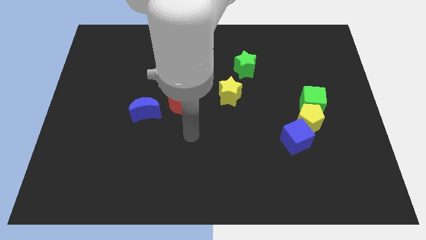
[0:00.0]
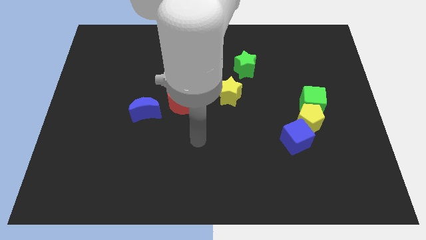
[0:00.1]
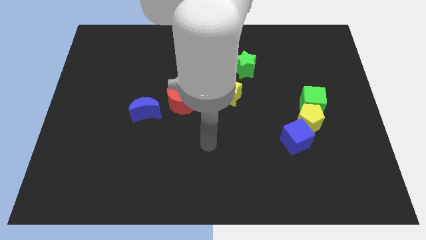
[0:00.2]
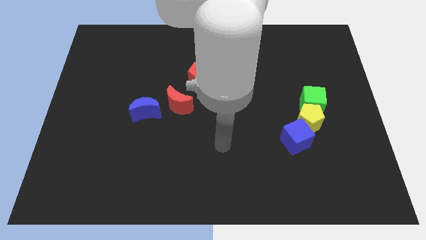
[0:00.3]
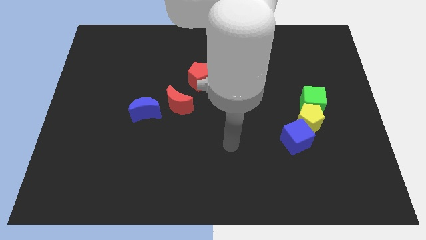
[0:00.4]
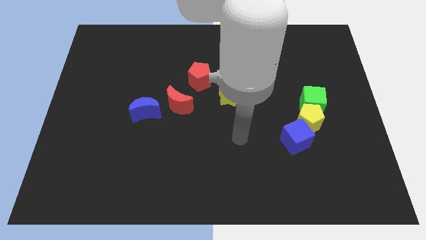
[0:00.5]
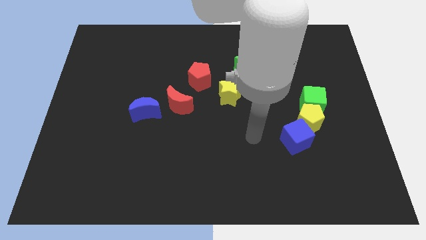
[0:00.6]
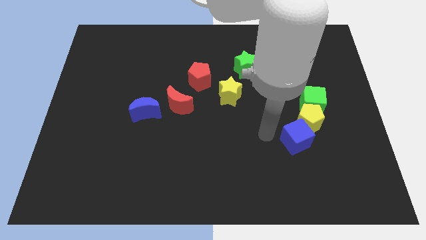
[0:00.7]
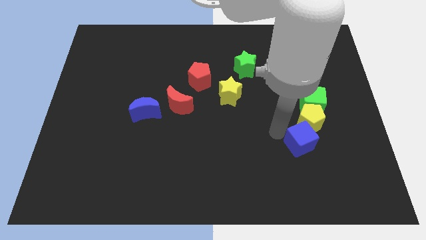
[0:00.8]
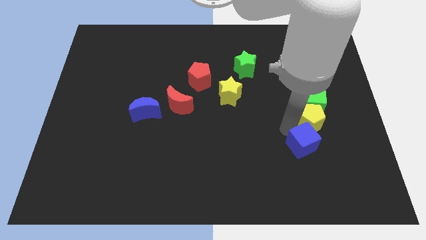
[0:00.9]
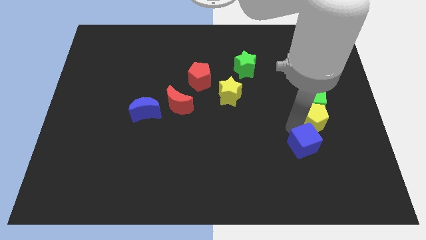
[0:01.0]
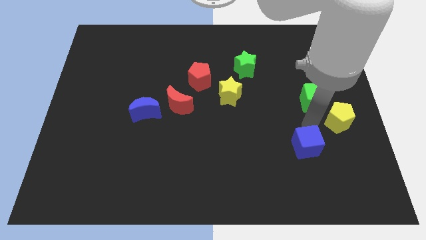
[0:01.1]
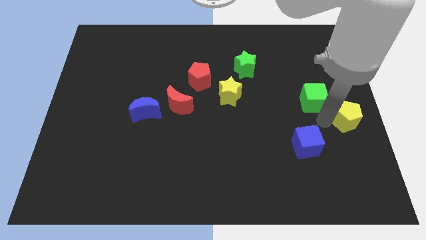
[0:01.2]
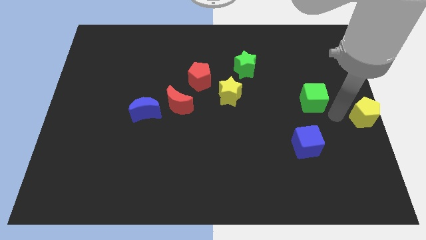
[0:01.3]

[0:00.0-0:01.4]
pull the green cube apart from the yellow pentagon

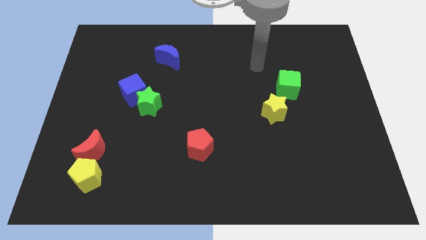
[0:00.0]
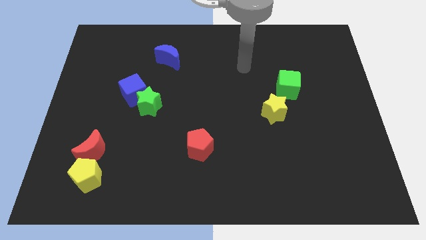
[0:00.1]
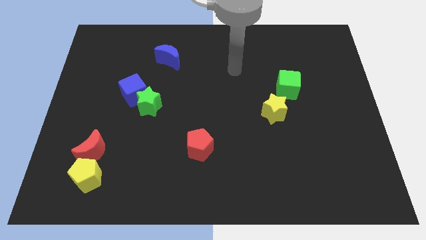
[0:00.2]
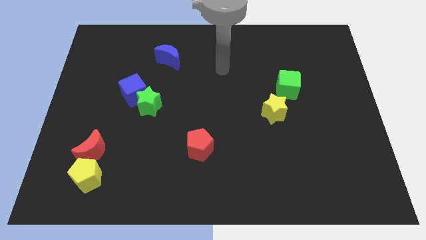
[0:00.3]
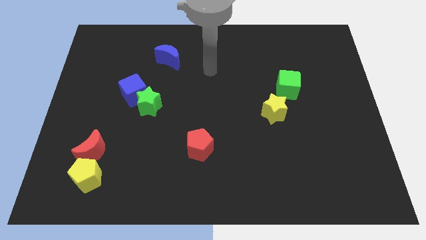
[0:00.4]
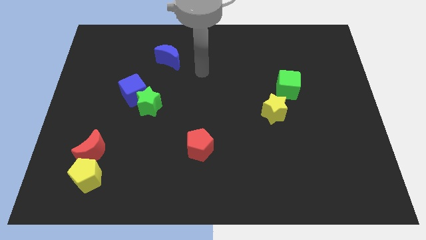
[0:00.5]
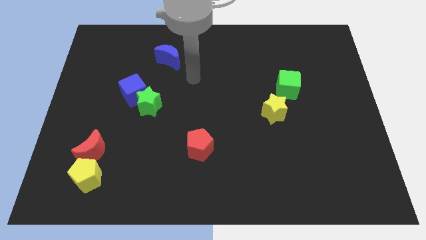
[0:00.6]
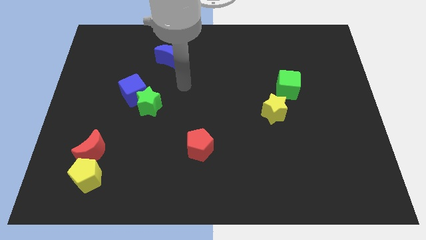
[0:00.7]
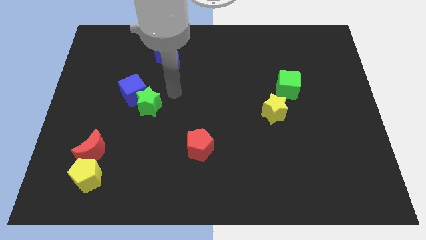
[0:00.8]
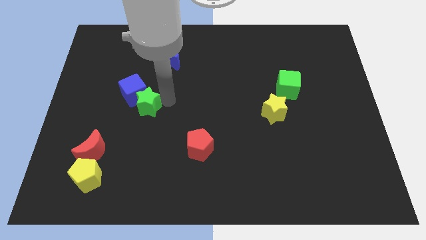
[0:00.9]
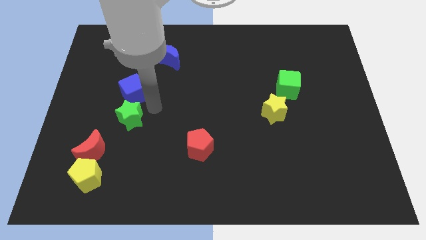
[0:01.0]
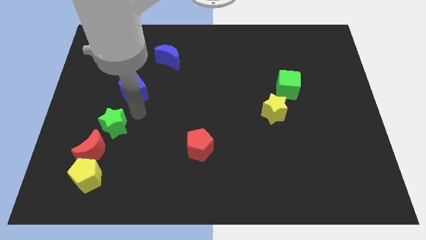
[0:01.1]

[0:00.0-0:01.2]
pull the blue cube apart from the green star

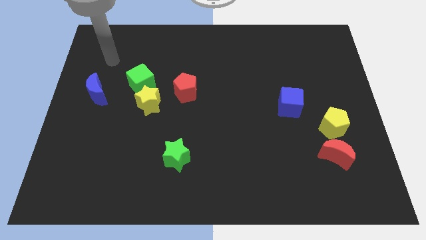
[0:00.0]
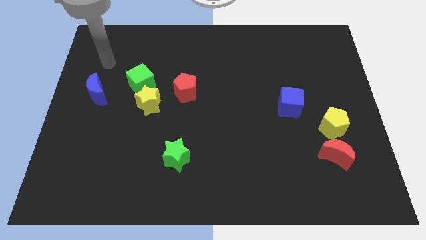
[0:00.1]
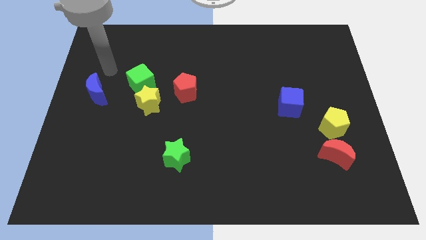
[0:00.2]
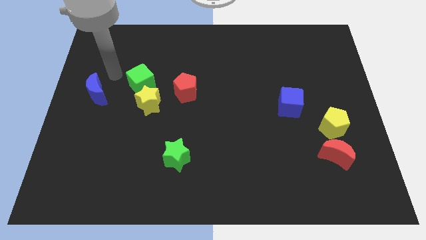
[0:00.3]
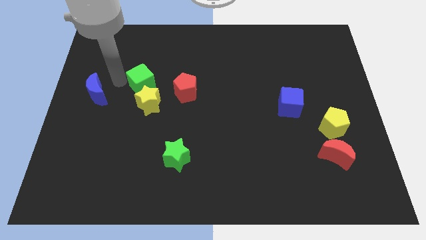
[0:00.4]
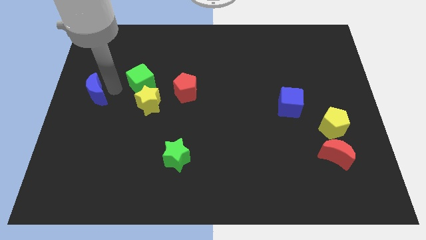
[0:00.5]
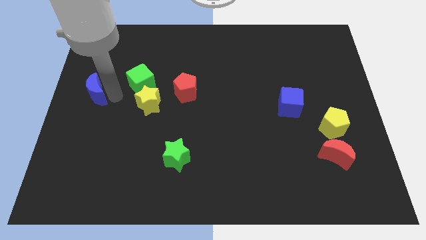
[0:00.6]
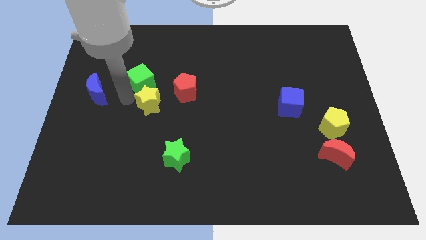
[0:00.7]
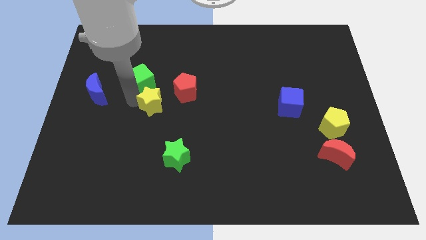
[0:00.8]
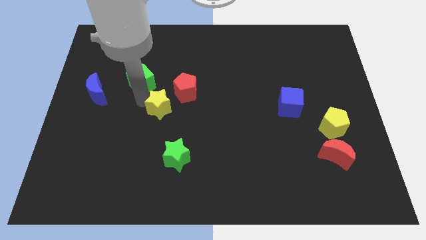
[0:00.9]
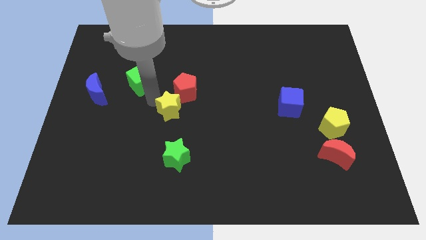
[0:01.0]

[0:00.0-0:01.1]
pull the green cube apart from the yellow star

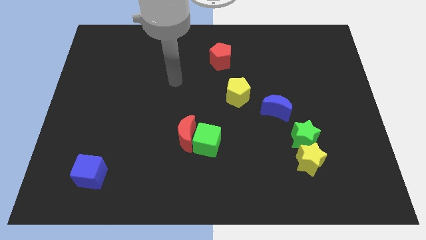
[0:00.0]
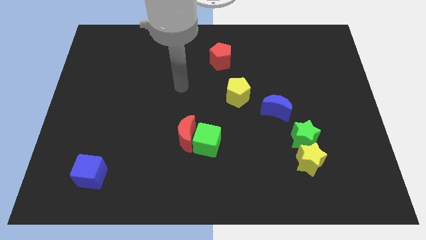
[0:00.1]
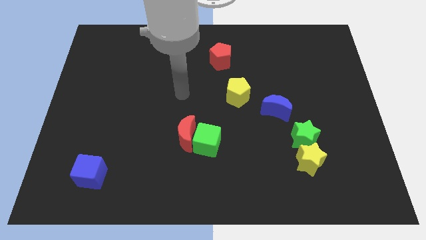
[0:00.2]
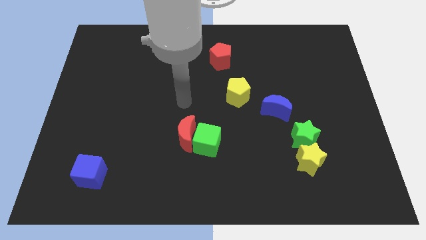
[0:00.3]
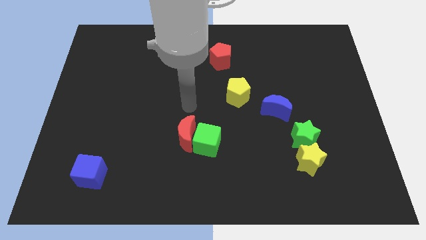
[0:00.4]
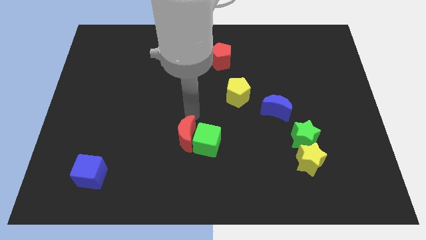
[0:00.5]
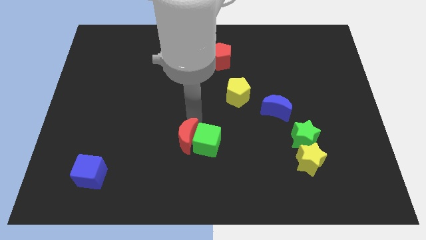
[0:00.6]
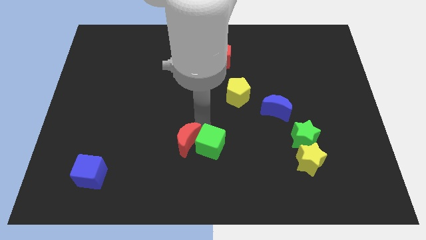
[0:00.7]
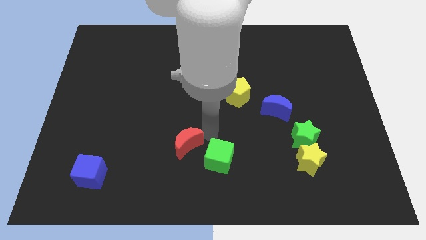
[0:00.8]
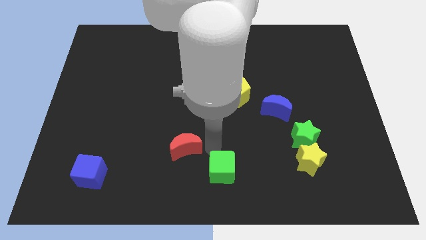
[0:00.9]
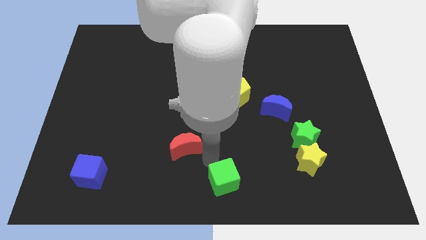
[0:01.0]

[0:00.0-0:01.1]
separate the red moon from the green cube

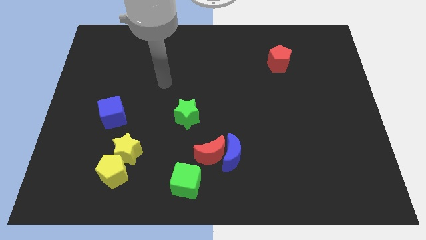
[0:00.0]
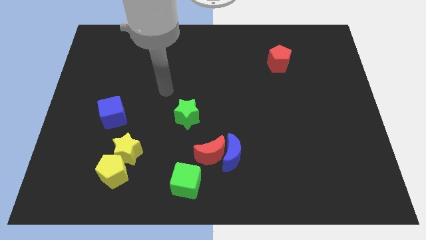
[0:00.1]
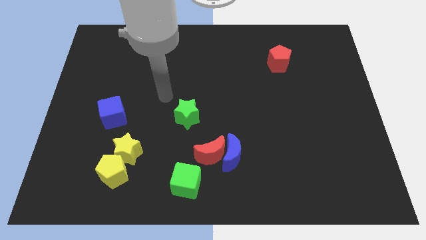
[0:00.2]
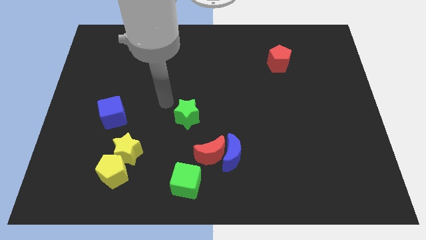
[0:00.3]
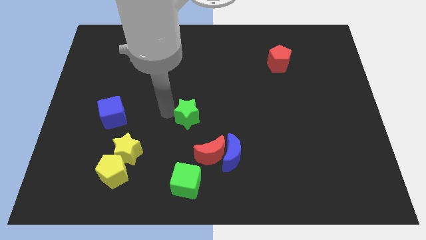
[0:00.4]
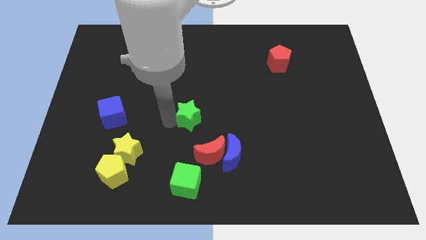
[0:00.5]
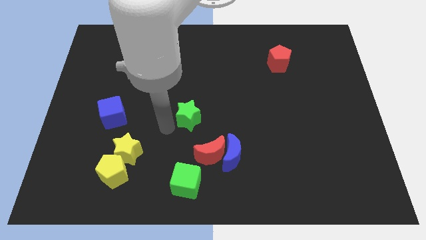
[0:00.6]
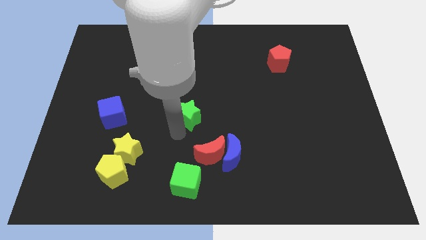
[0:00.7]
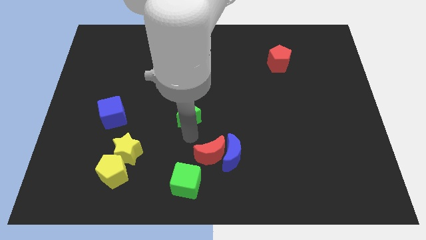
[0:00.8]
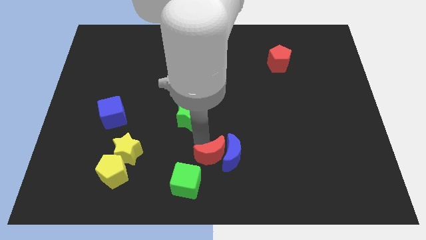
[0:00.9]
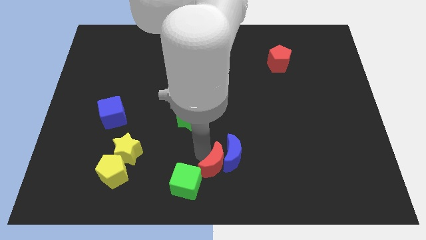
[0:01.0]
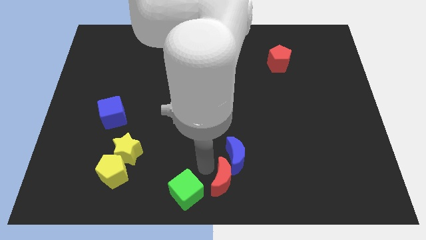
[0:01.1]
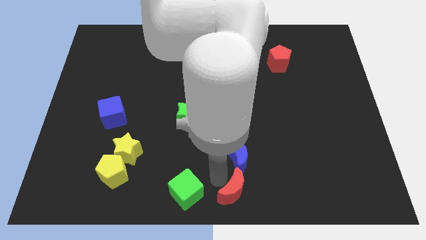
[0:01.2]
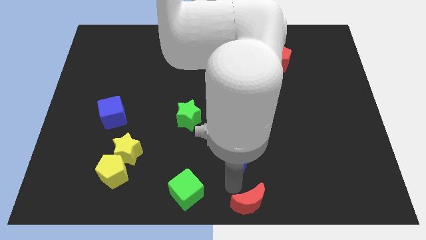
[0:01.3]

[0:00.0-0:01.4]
move the blue moon away from the red moon

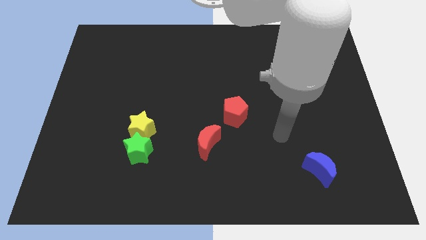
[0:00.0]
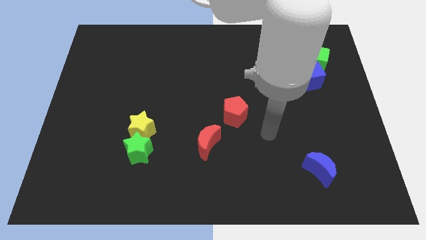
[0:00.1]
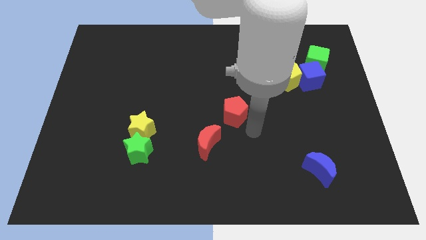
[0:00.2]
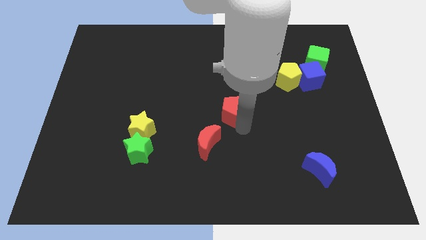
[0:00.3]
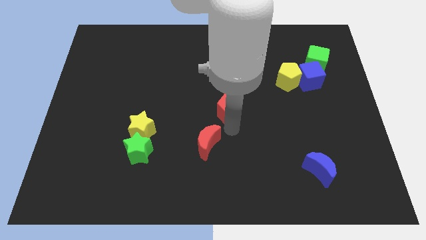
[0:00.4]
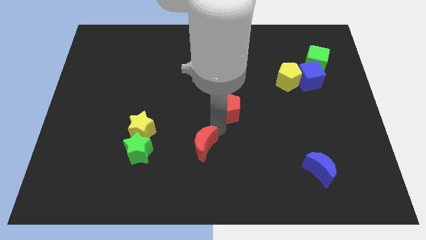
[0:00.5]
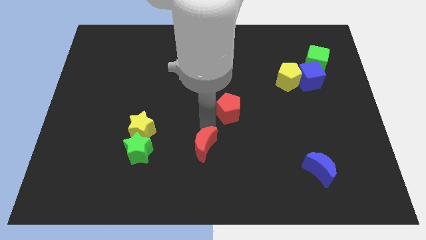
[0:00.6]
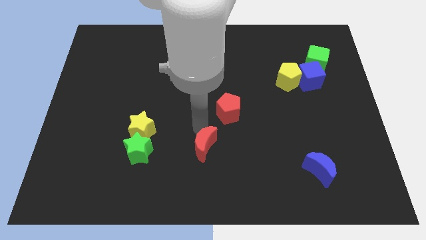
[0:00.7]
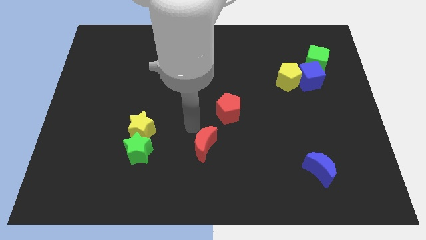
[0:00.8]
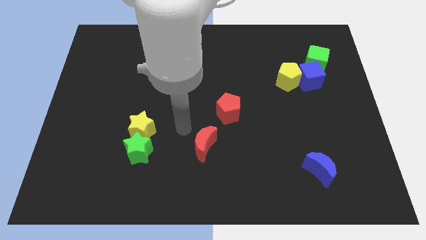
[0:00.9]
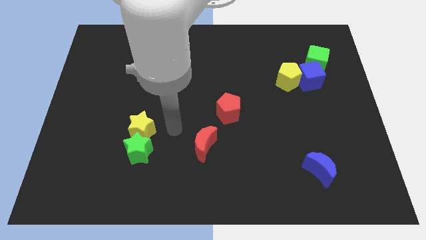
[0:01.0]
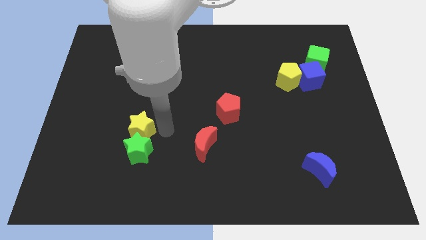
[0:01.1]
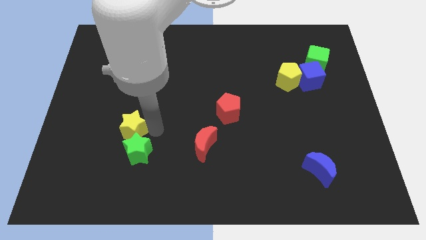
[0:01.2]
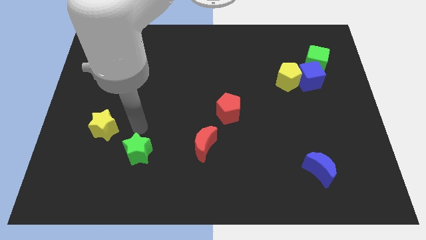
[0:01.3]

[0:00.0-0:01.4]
move the green star away from the yellow star

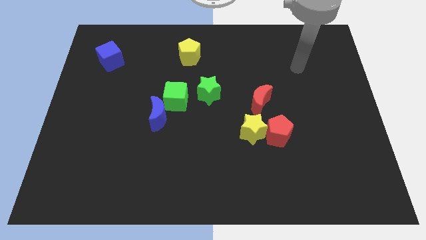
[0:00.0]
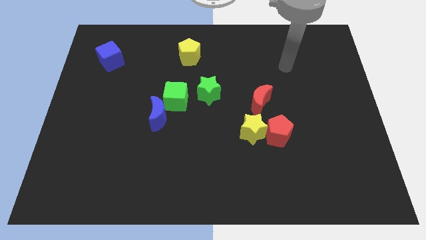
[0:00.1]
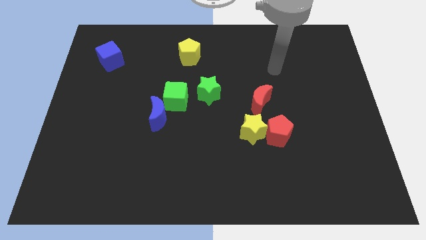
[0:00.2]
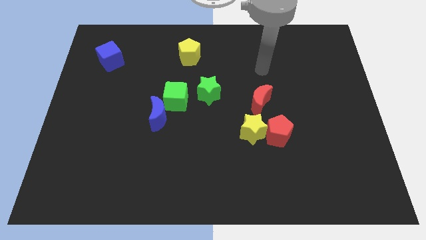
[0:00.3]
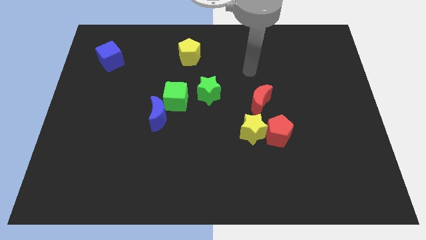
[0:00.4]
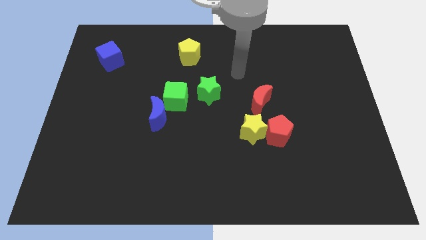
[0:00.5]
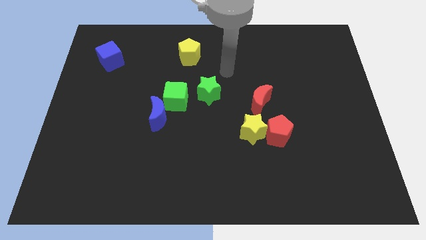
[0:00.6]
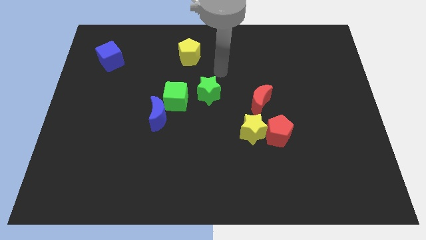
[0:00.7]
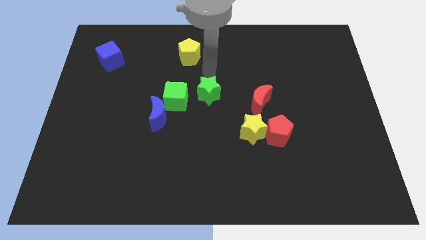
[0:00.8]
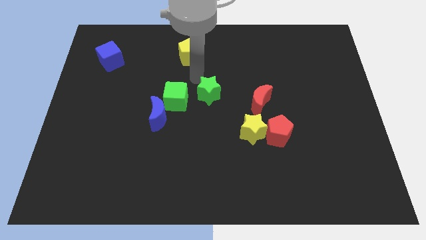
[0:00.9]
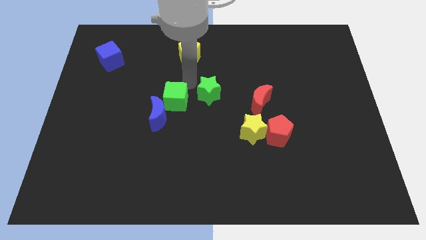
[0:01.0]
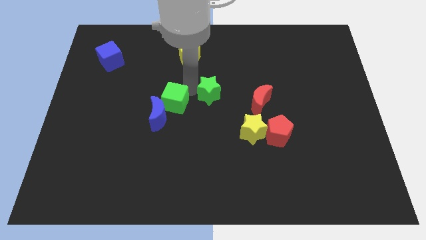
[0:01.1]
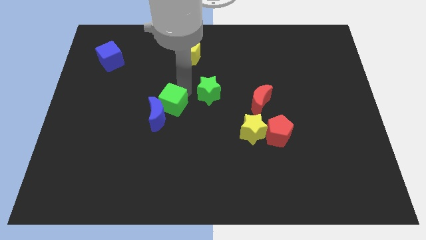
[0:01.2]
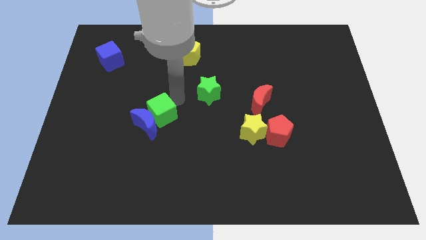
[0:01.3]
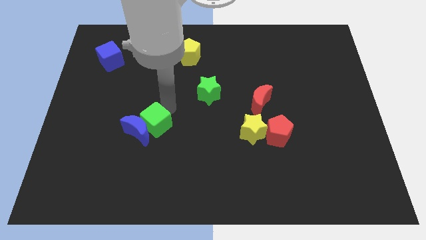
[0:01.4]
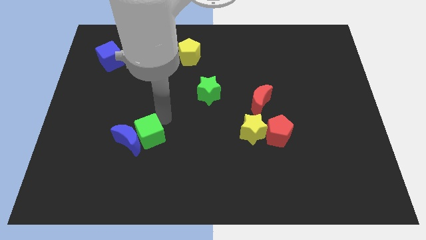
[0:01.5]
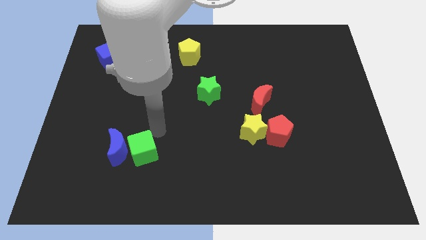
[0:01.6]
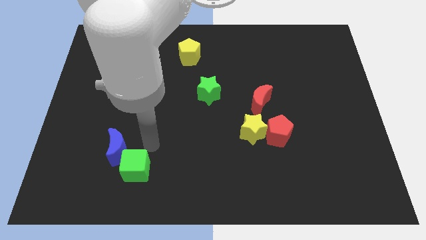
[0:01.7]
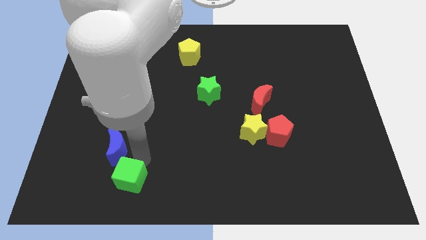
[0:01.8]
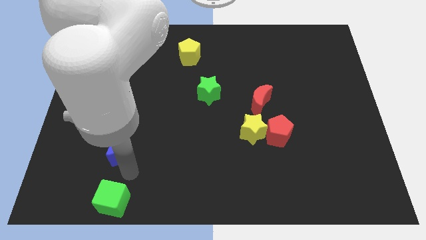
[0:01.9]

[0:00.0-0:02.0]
move the blue moon away from the green cube
